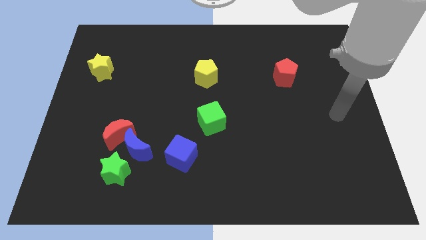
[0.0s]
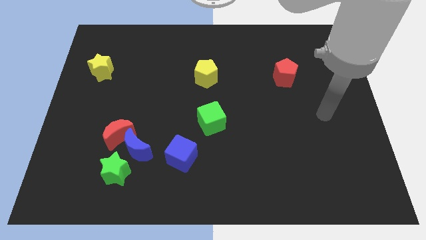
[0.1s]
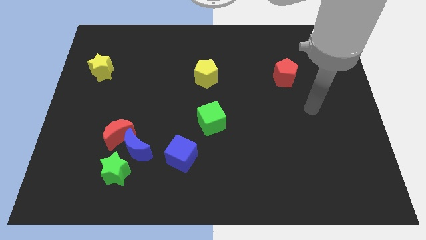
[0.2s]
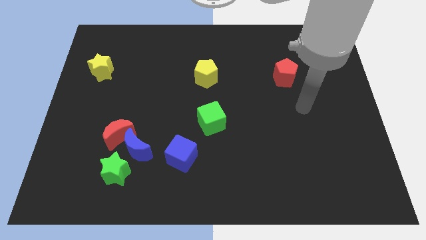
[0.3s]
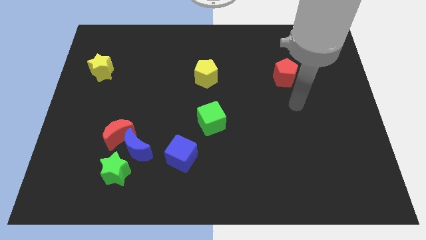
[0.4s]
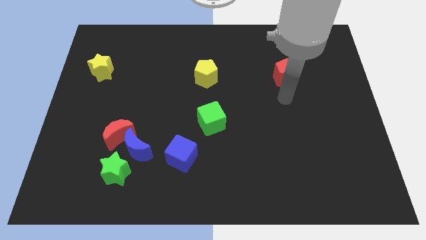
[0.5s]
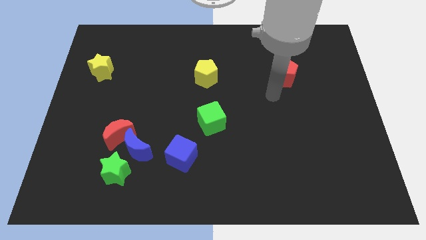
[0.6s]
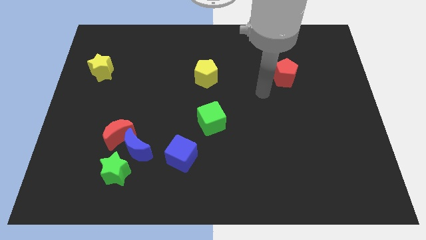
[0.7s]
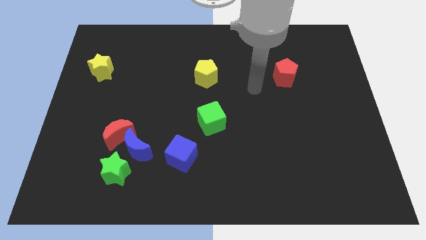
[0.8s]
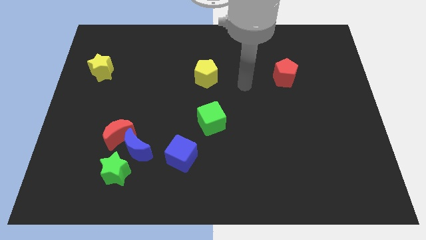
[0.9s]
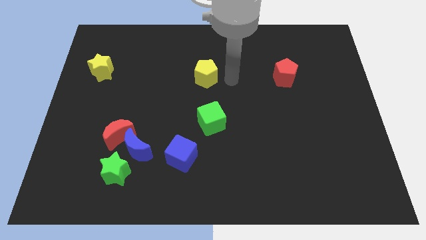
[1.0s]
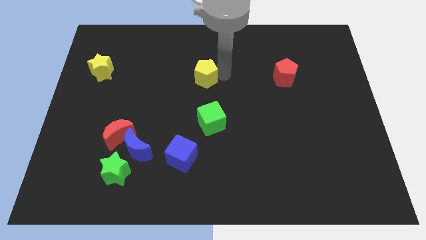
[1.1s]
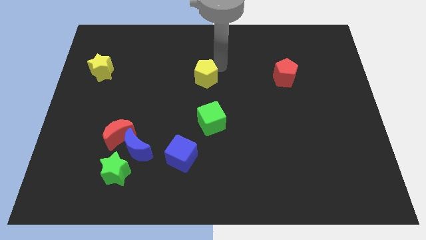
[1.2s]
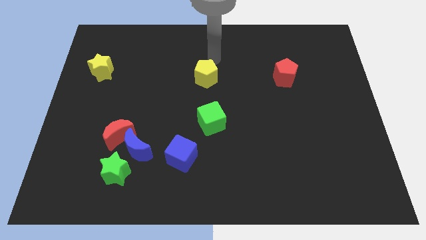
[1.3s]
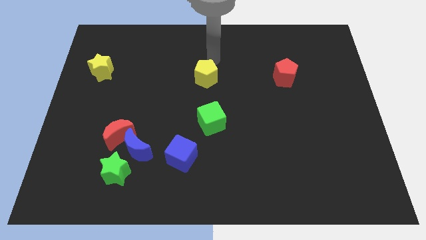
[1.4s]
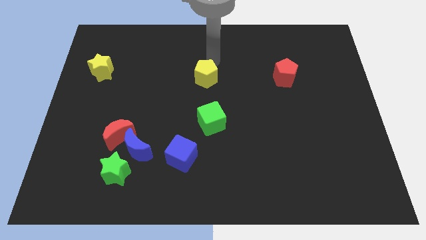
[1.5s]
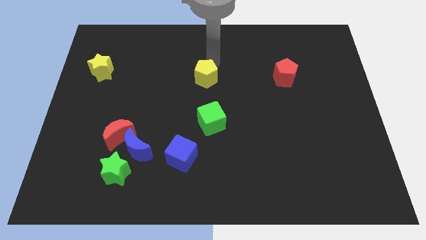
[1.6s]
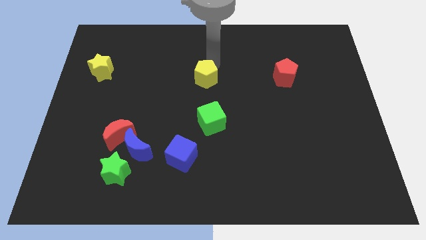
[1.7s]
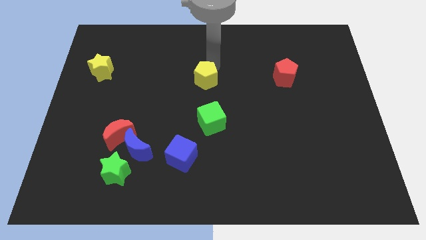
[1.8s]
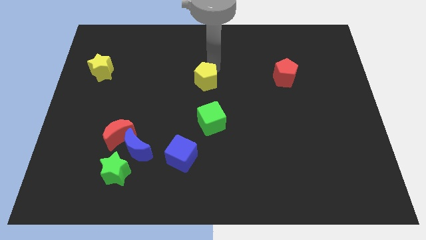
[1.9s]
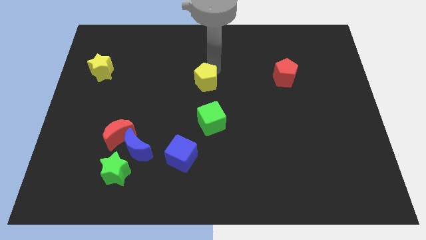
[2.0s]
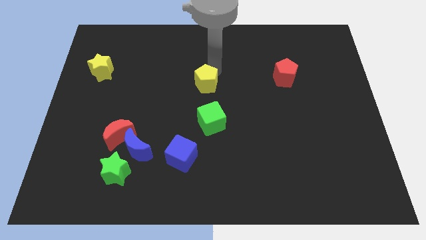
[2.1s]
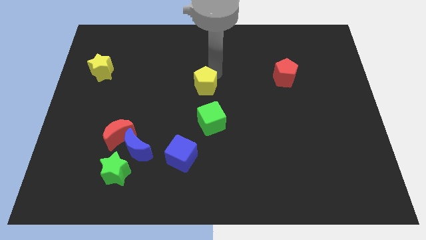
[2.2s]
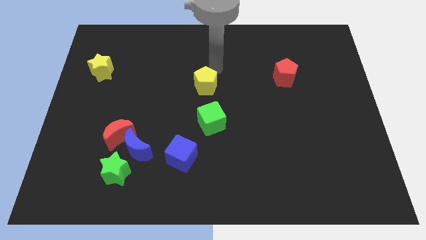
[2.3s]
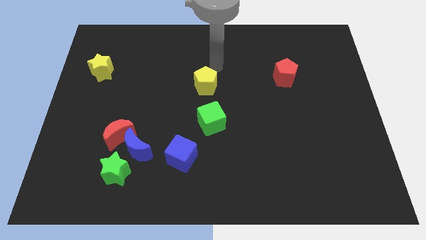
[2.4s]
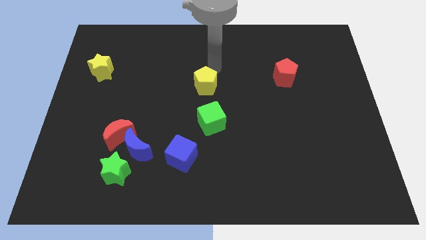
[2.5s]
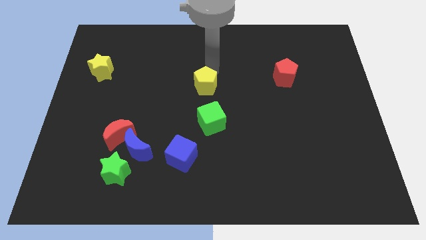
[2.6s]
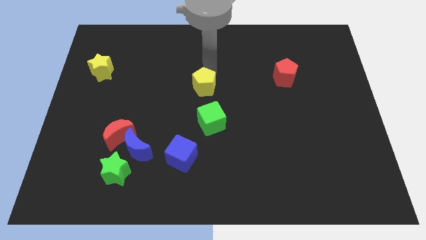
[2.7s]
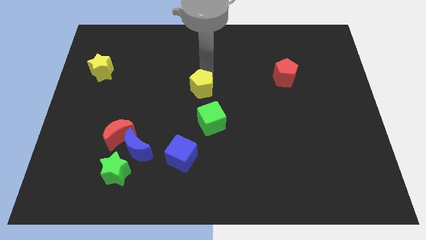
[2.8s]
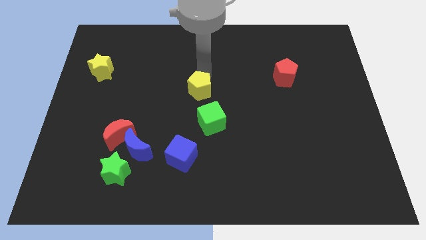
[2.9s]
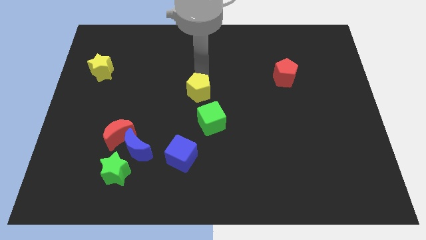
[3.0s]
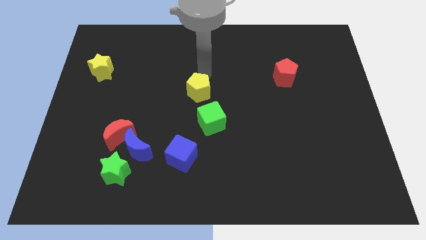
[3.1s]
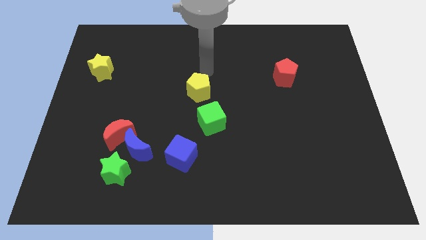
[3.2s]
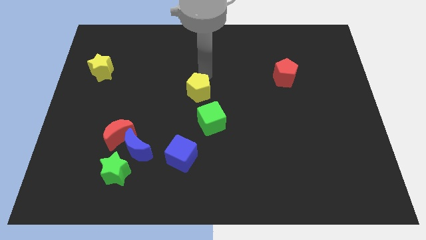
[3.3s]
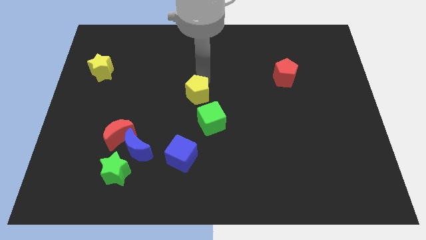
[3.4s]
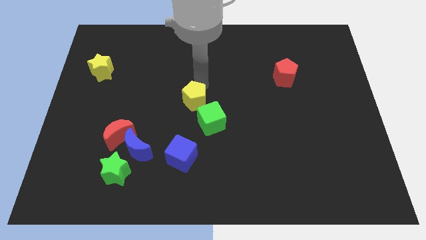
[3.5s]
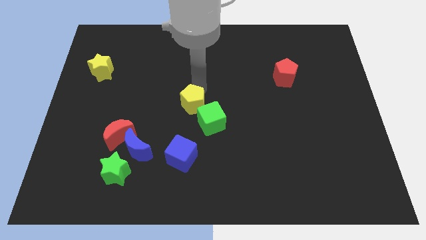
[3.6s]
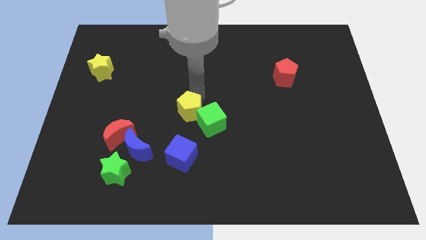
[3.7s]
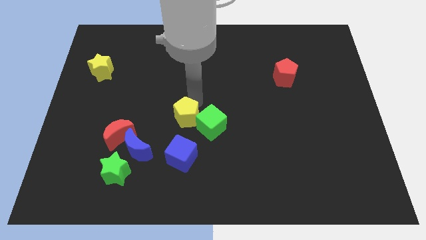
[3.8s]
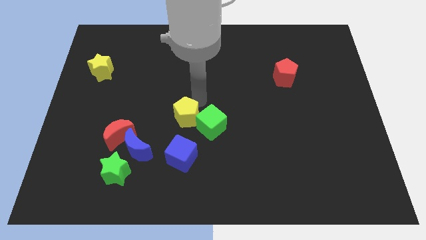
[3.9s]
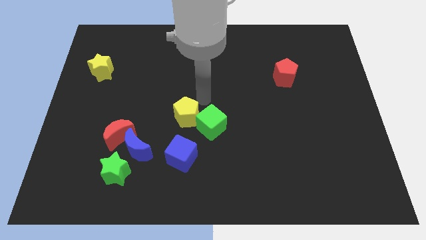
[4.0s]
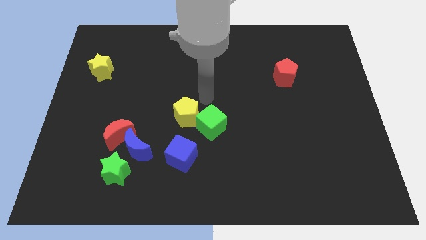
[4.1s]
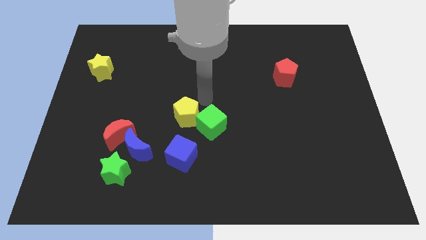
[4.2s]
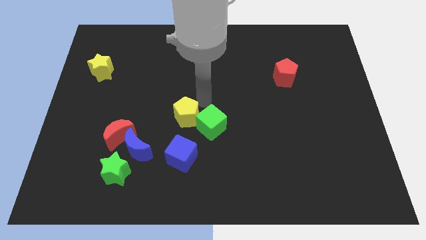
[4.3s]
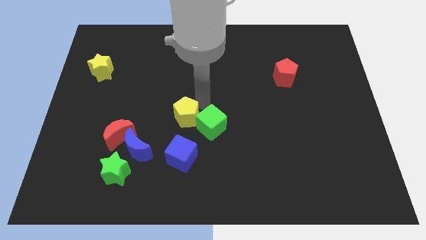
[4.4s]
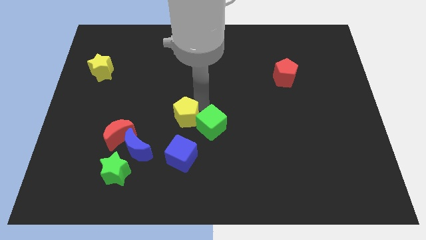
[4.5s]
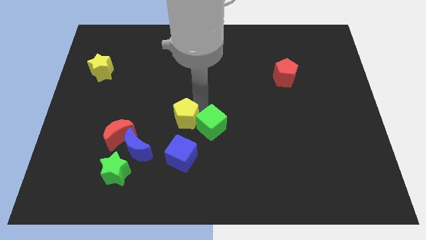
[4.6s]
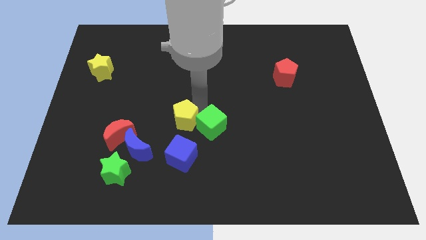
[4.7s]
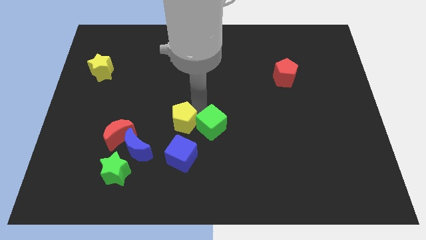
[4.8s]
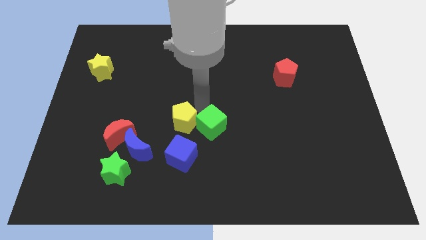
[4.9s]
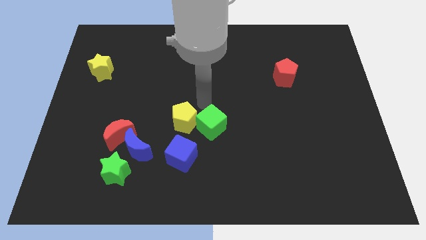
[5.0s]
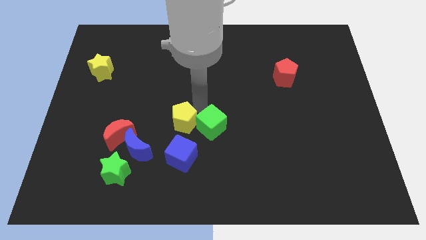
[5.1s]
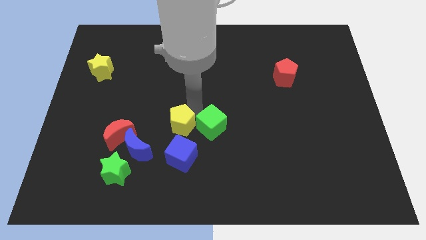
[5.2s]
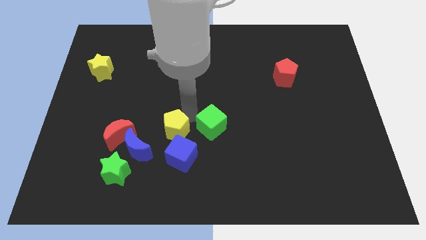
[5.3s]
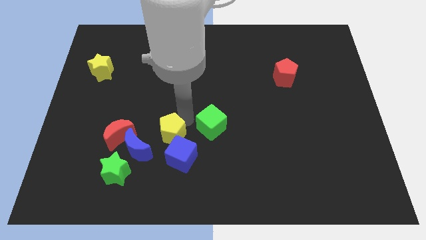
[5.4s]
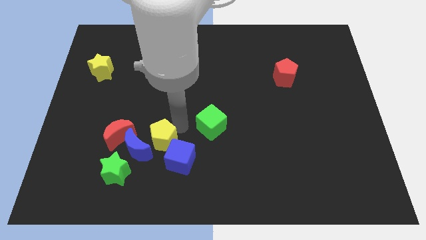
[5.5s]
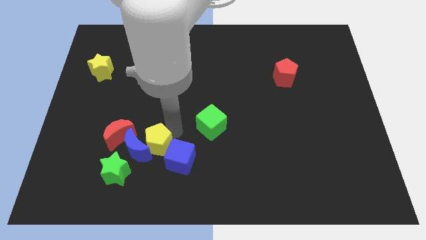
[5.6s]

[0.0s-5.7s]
slide the yellow pentagon close to the blue moon

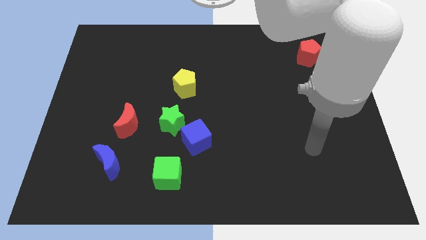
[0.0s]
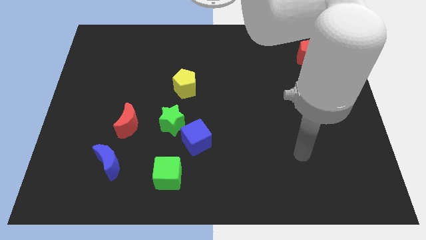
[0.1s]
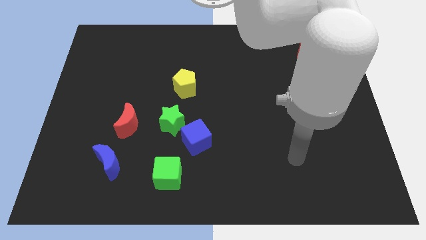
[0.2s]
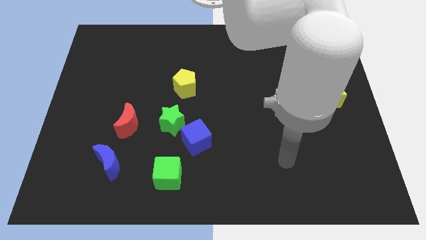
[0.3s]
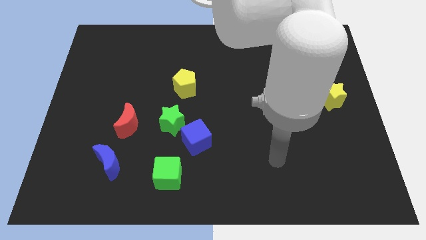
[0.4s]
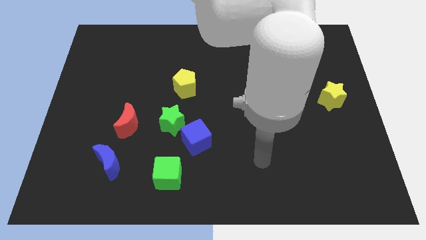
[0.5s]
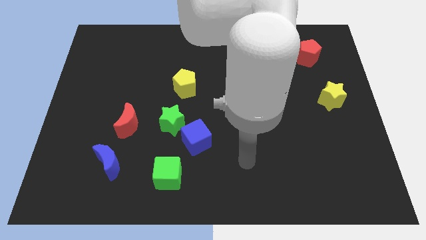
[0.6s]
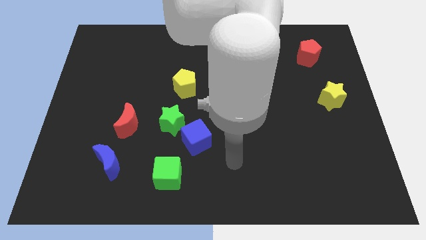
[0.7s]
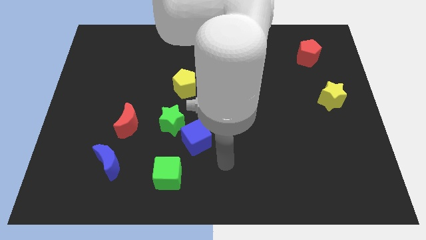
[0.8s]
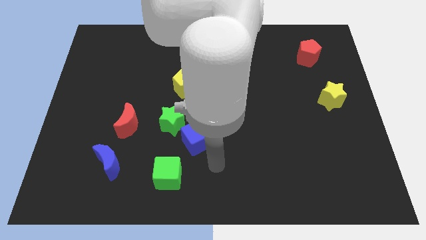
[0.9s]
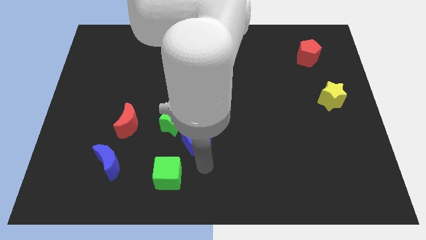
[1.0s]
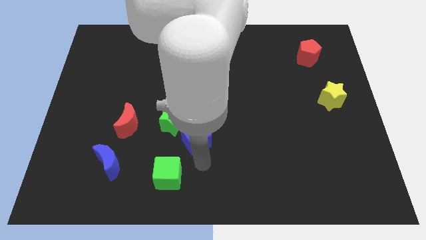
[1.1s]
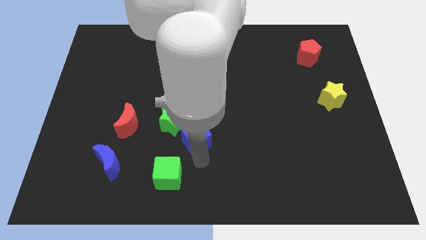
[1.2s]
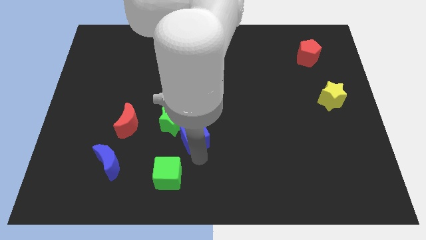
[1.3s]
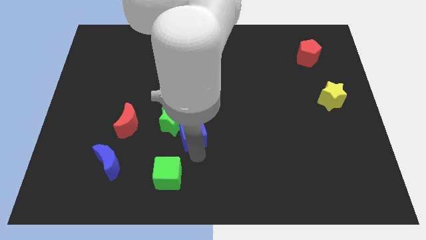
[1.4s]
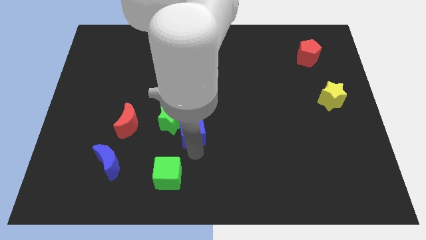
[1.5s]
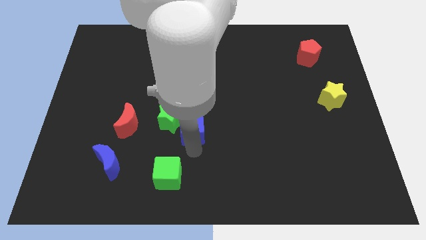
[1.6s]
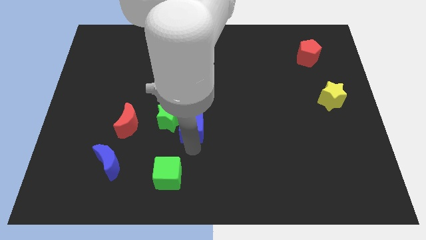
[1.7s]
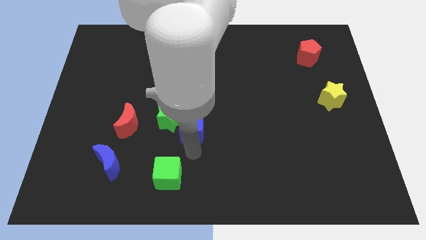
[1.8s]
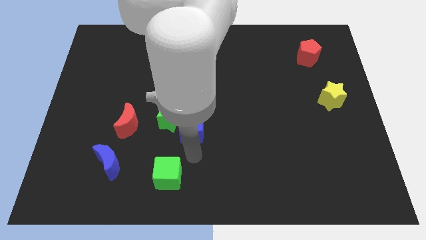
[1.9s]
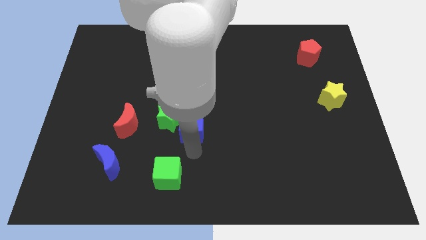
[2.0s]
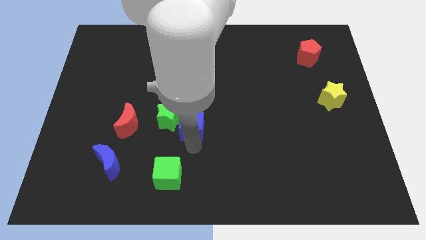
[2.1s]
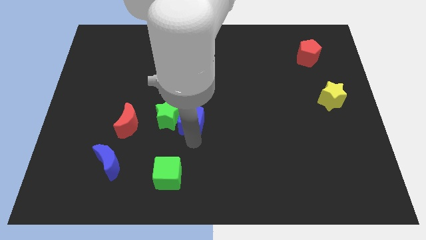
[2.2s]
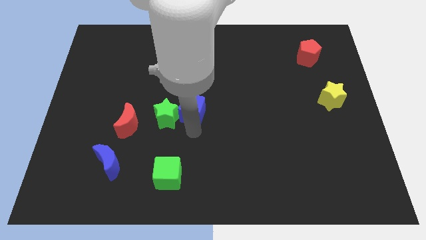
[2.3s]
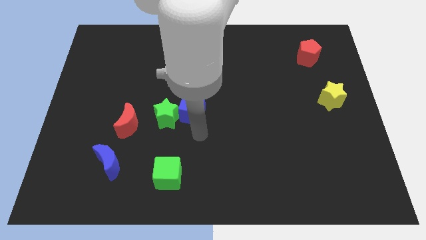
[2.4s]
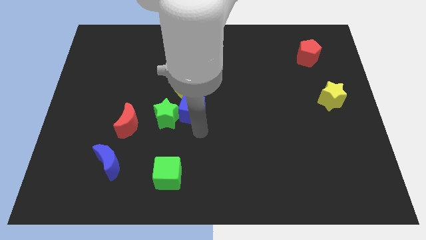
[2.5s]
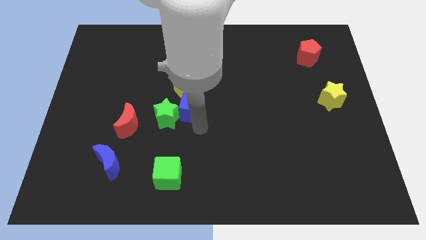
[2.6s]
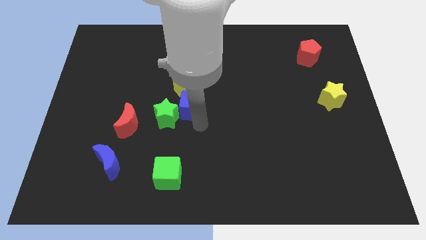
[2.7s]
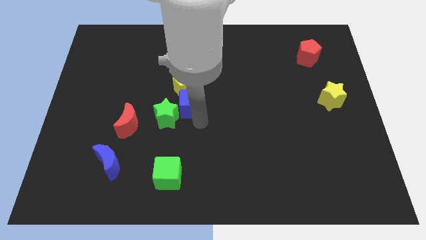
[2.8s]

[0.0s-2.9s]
slide the blue cube close to the yellow pentagon
